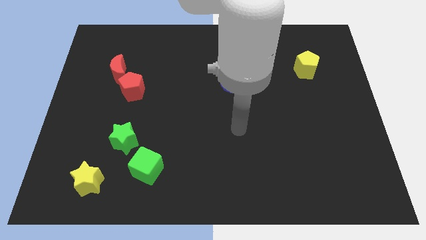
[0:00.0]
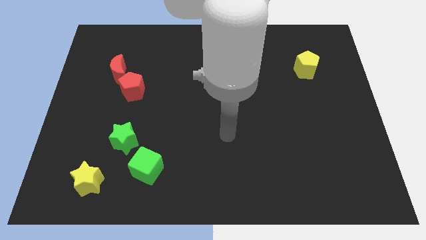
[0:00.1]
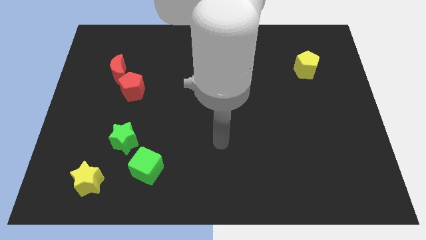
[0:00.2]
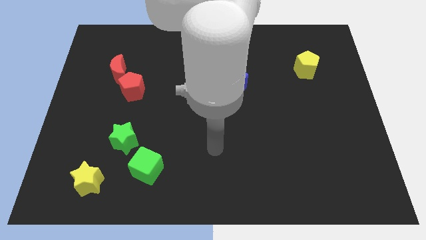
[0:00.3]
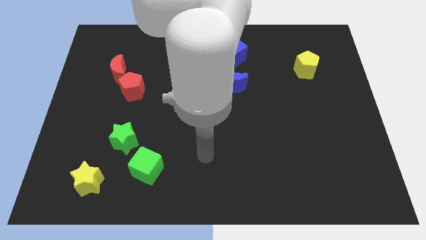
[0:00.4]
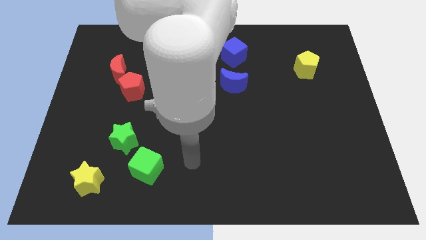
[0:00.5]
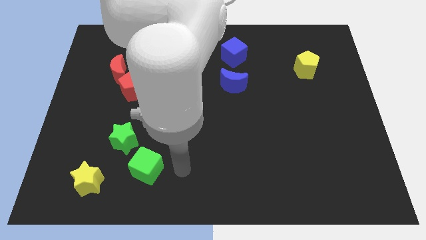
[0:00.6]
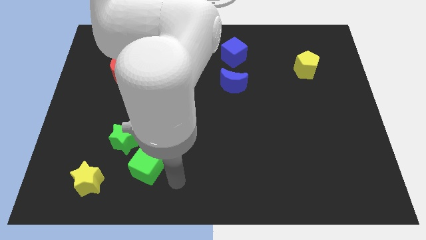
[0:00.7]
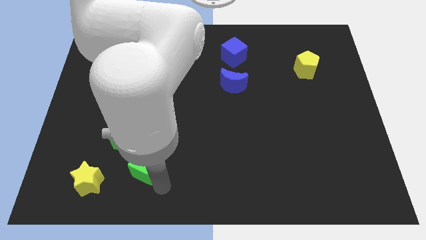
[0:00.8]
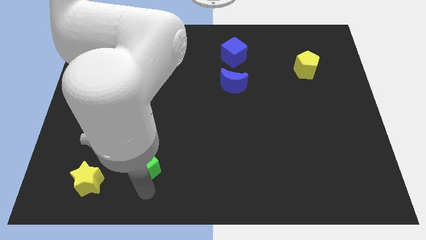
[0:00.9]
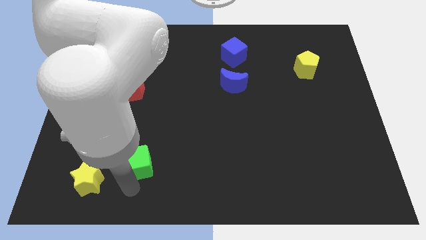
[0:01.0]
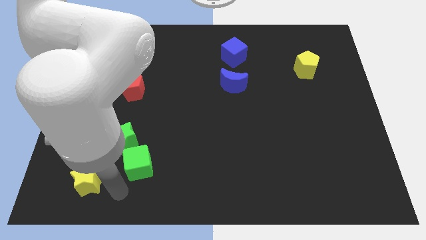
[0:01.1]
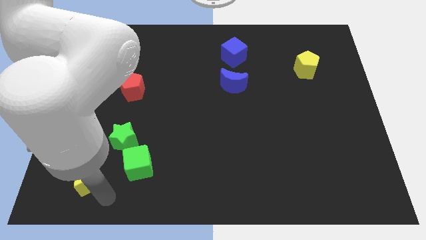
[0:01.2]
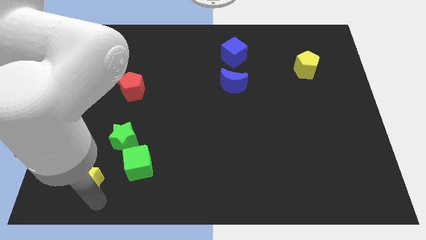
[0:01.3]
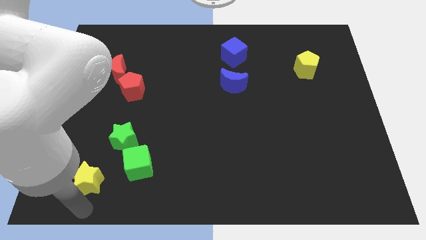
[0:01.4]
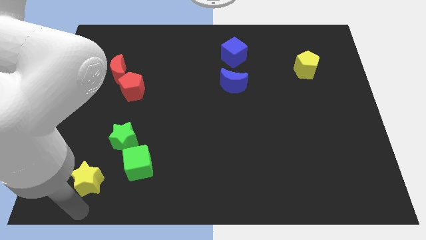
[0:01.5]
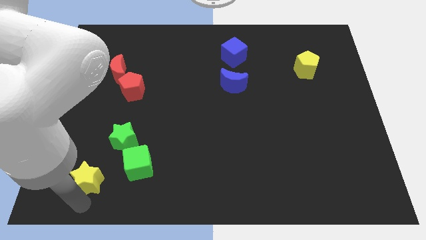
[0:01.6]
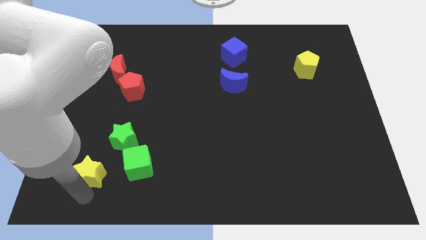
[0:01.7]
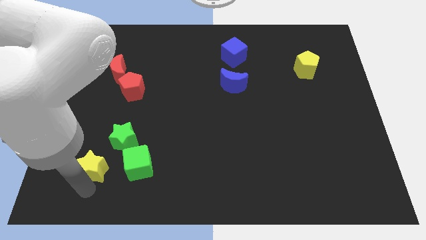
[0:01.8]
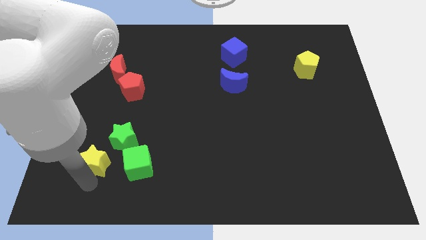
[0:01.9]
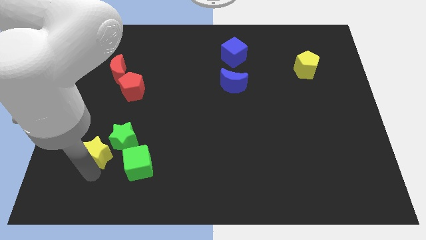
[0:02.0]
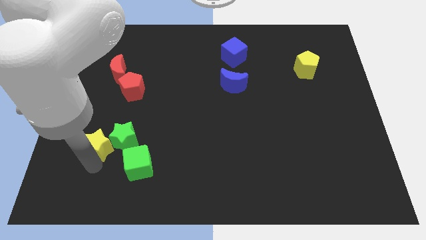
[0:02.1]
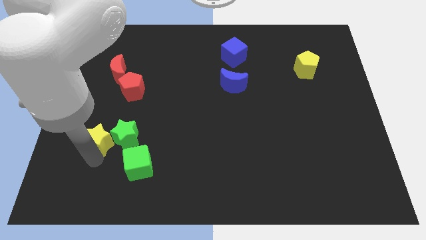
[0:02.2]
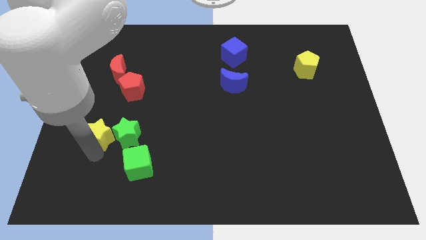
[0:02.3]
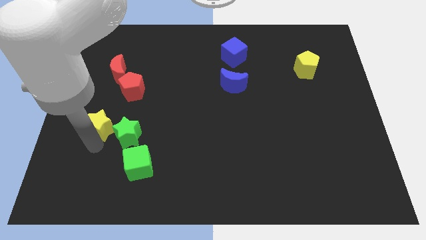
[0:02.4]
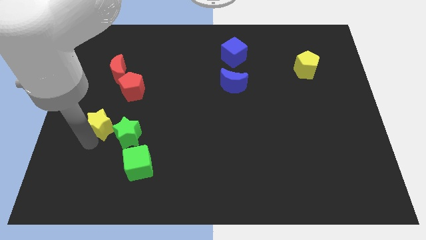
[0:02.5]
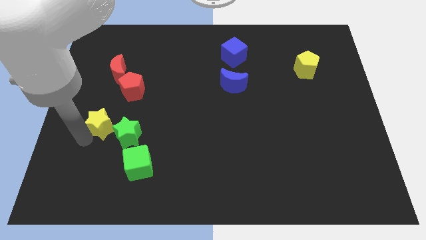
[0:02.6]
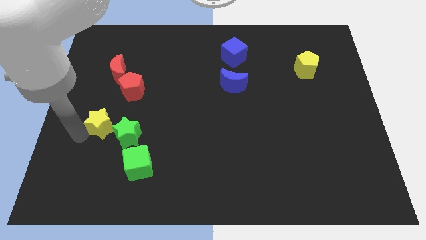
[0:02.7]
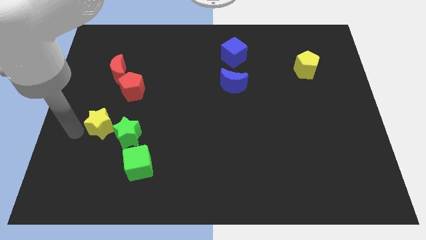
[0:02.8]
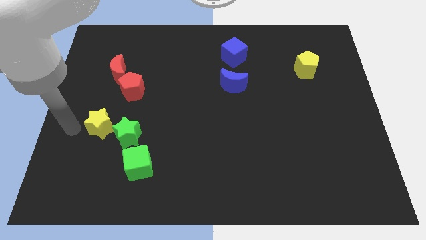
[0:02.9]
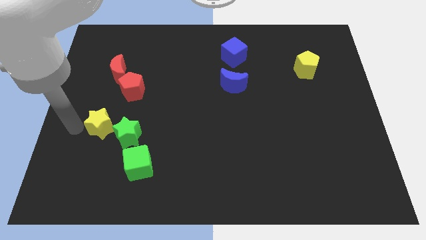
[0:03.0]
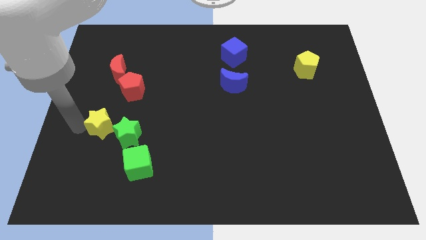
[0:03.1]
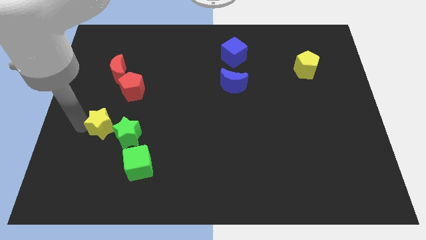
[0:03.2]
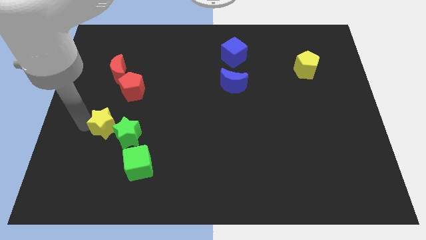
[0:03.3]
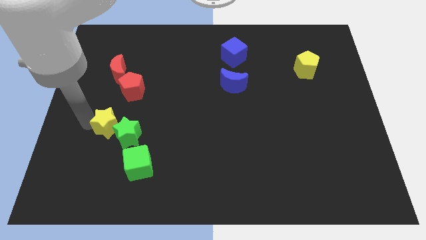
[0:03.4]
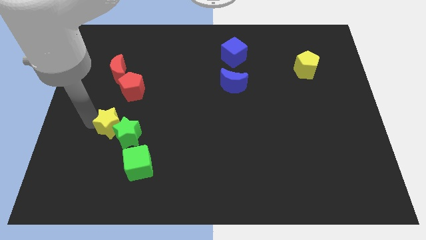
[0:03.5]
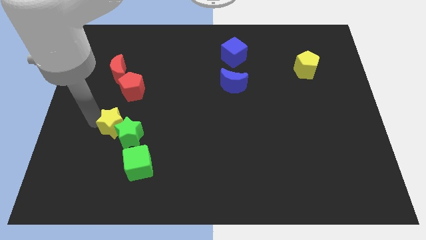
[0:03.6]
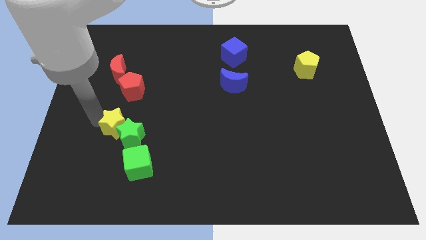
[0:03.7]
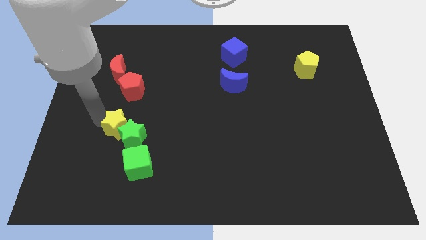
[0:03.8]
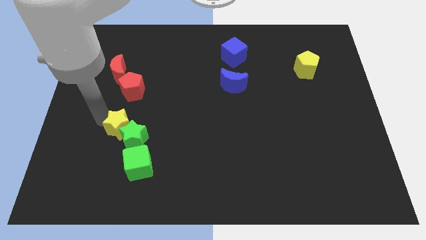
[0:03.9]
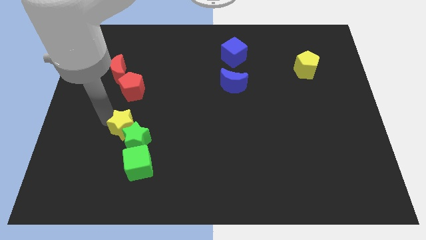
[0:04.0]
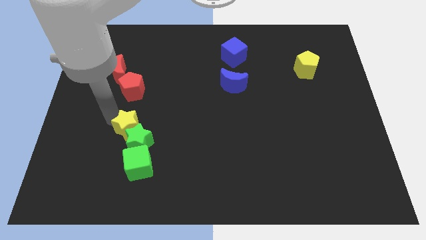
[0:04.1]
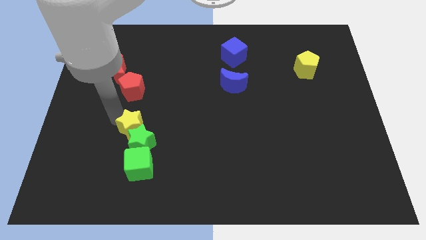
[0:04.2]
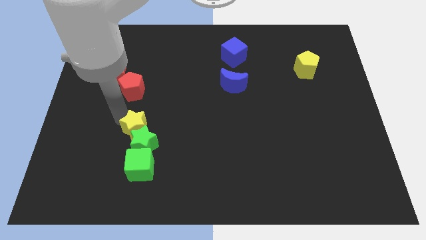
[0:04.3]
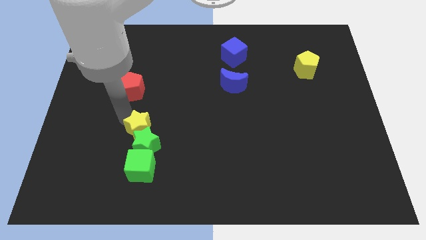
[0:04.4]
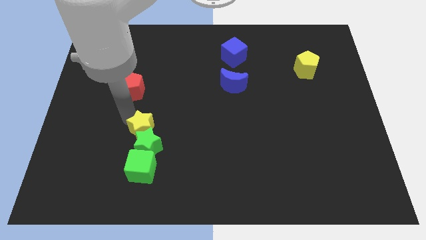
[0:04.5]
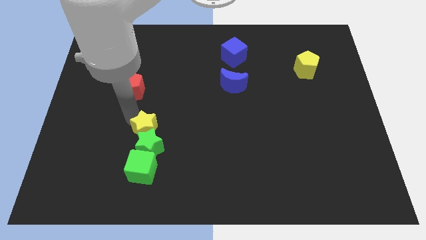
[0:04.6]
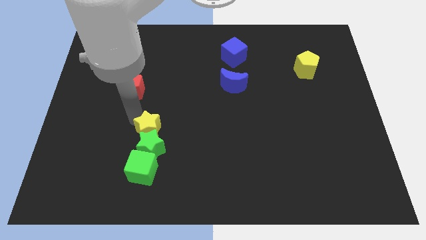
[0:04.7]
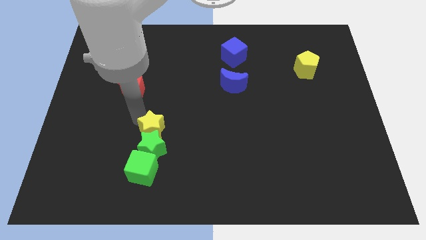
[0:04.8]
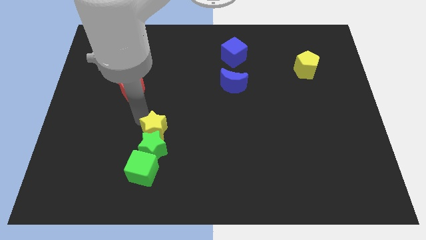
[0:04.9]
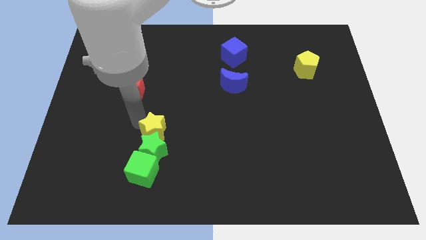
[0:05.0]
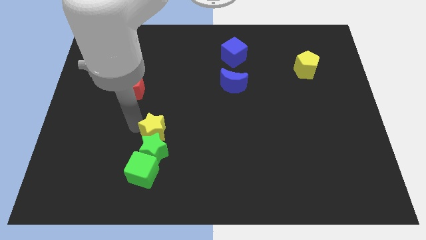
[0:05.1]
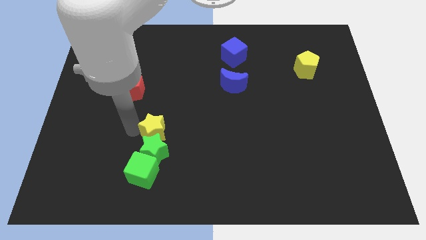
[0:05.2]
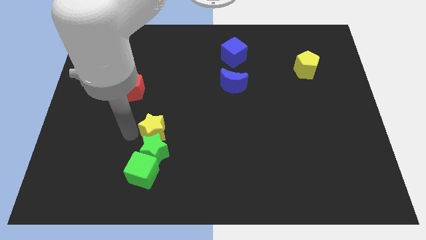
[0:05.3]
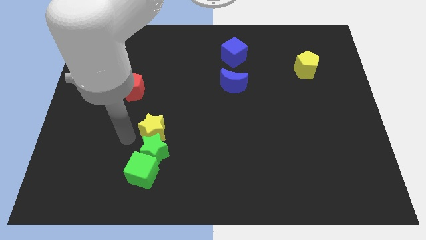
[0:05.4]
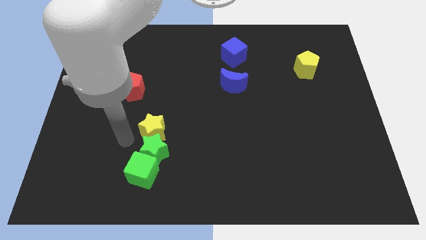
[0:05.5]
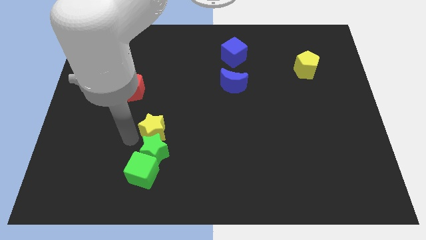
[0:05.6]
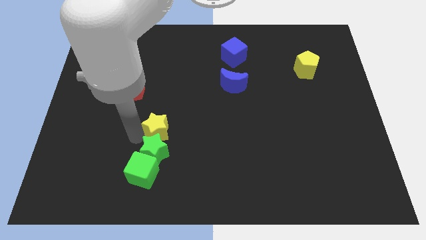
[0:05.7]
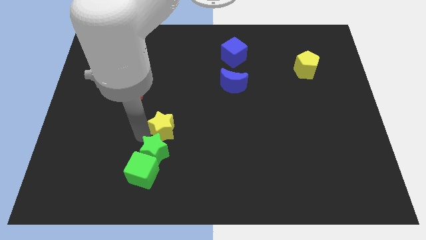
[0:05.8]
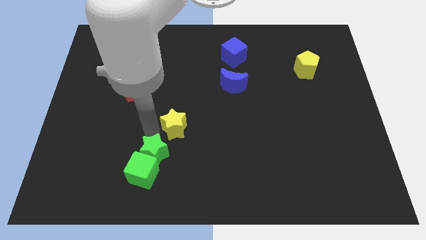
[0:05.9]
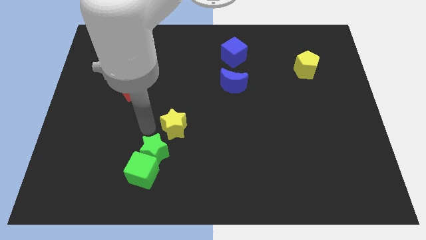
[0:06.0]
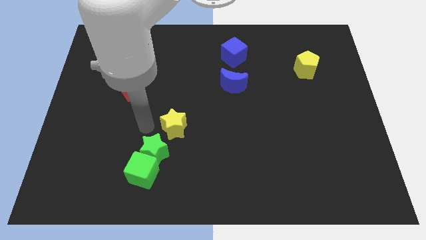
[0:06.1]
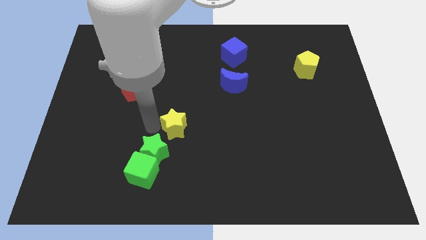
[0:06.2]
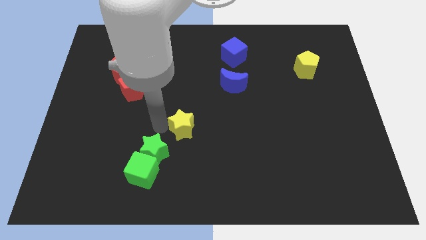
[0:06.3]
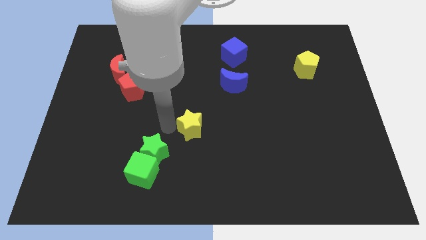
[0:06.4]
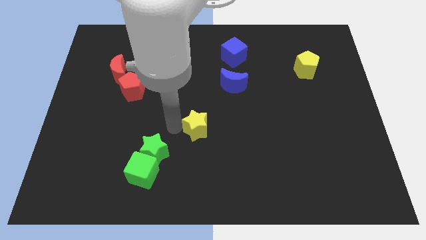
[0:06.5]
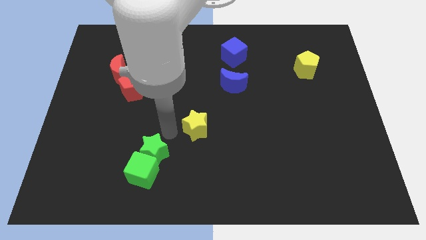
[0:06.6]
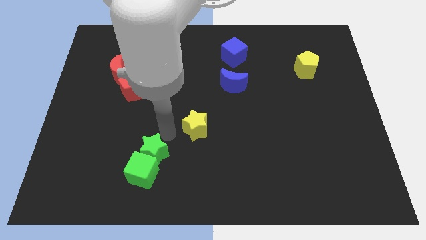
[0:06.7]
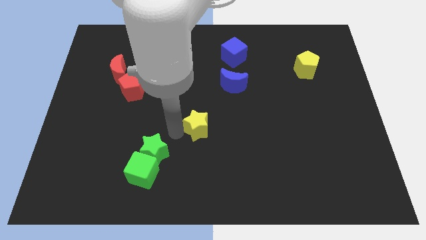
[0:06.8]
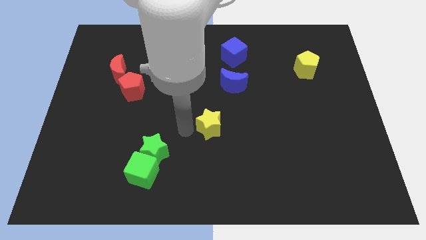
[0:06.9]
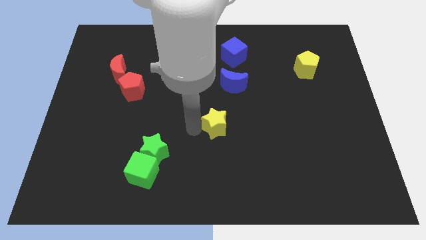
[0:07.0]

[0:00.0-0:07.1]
move the yellow star to the bottom side of the blue moon
